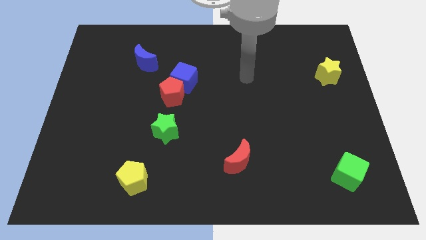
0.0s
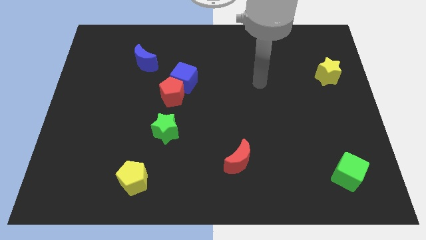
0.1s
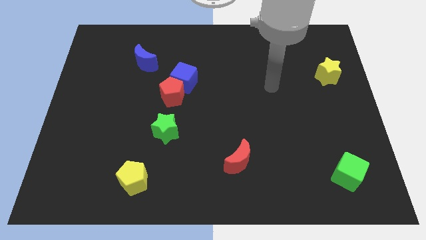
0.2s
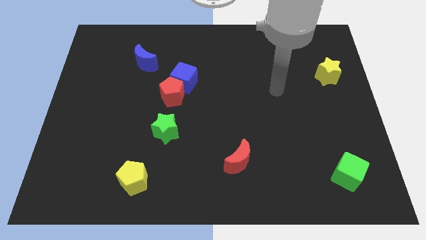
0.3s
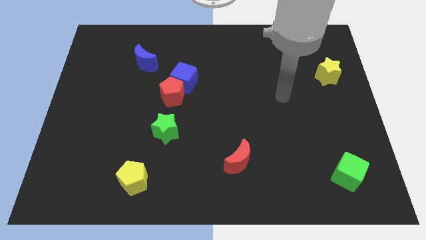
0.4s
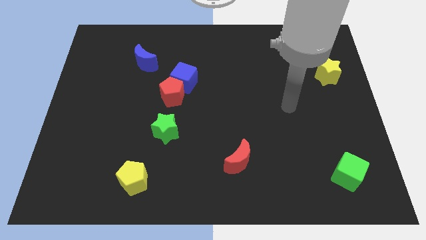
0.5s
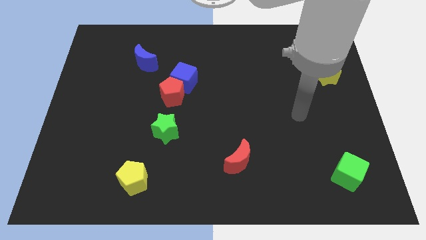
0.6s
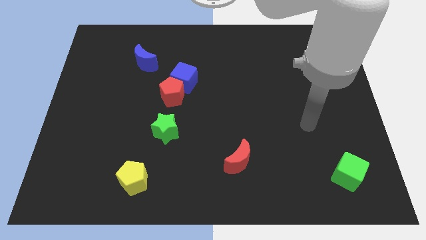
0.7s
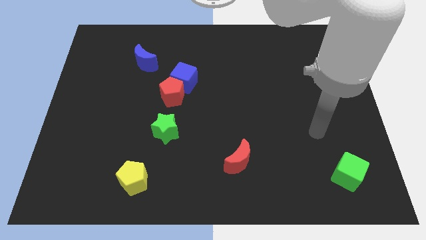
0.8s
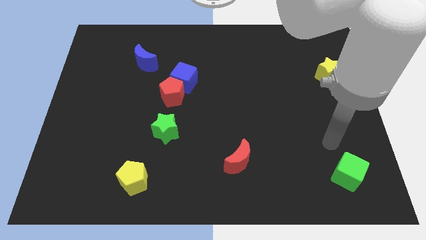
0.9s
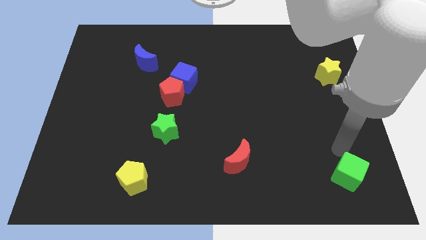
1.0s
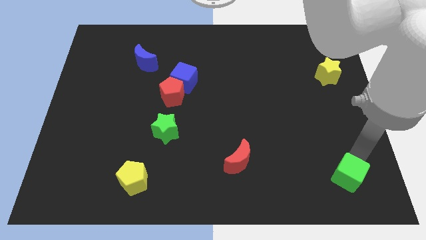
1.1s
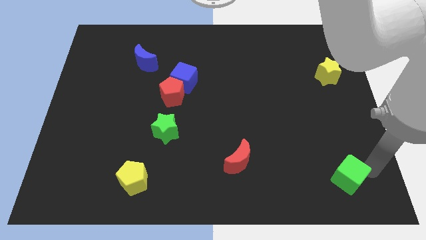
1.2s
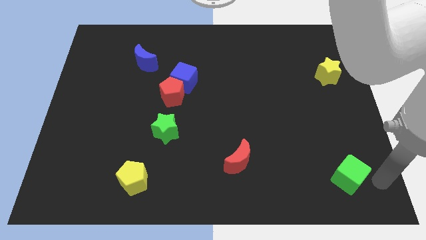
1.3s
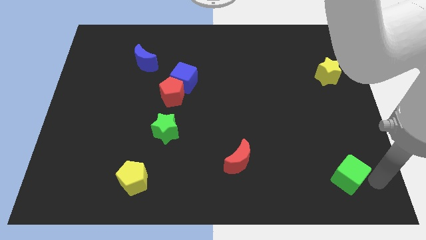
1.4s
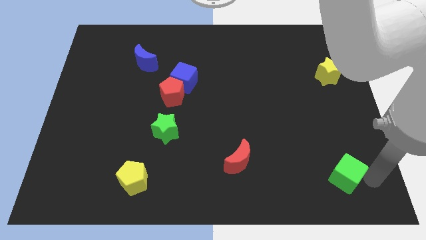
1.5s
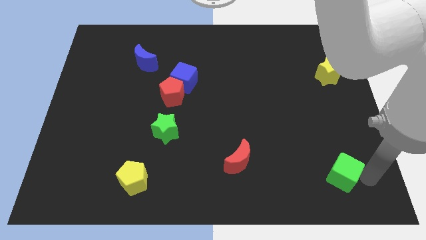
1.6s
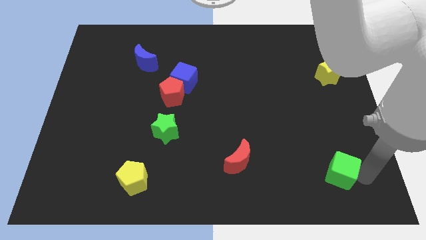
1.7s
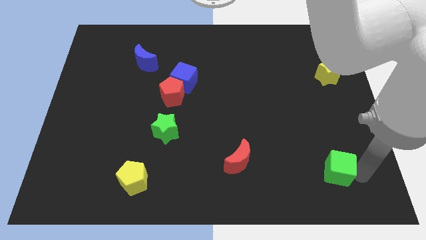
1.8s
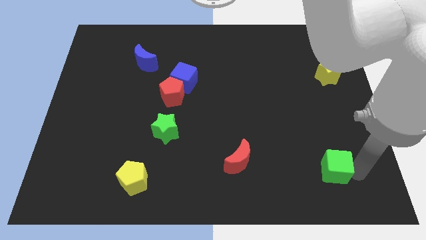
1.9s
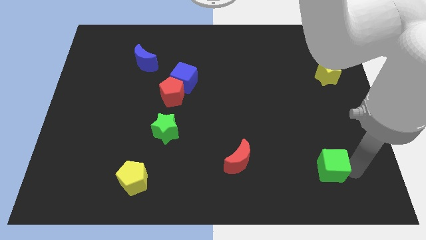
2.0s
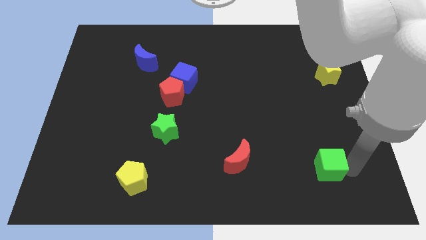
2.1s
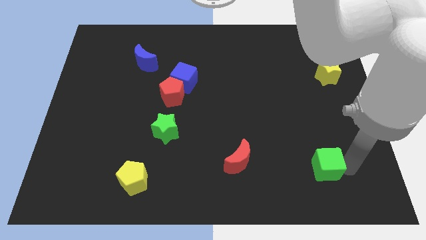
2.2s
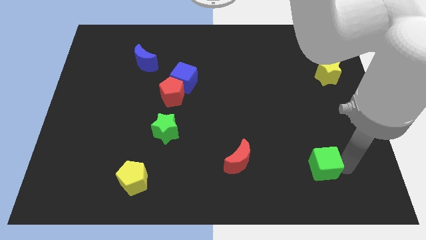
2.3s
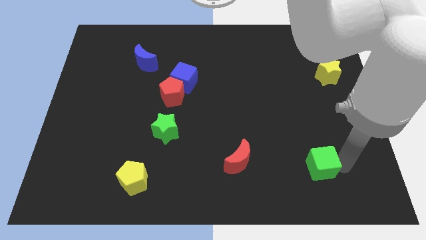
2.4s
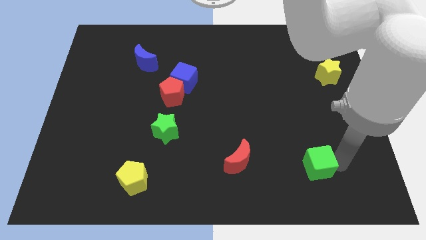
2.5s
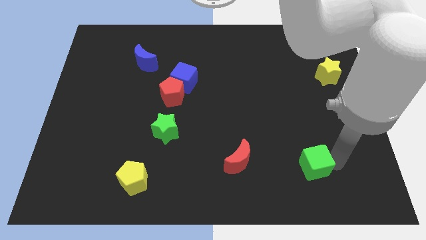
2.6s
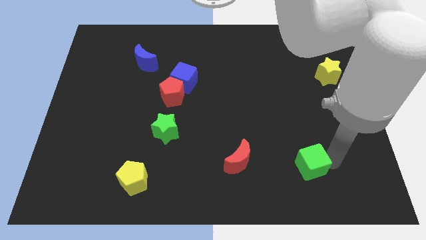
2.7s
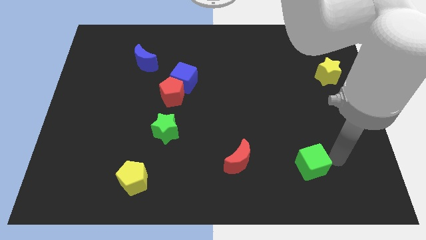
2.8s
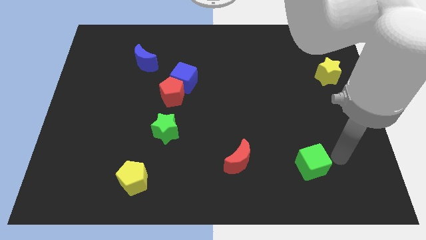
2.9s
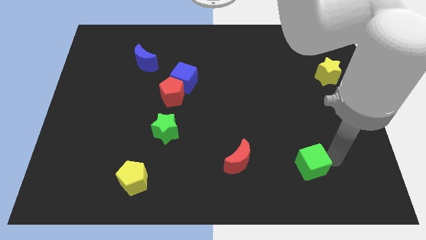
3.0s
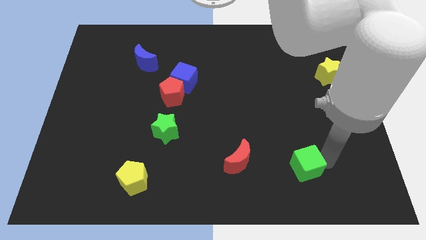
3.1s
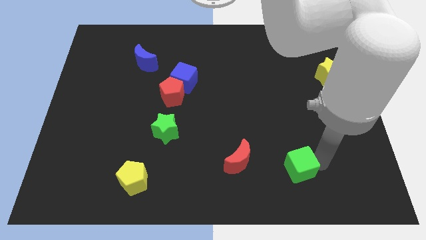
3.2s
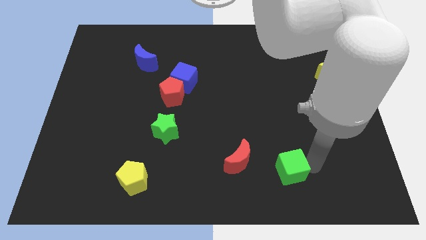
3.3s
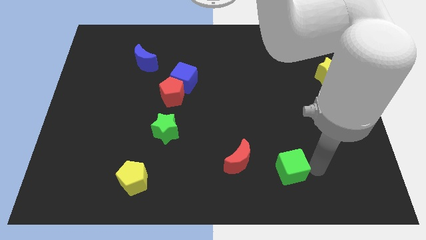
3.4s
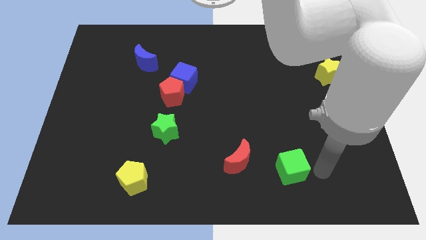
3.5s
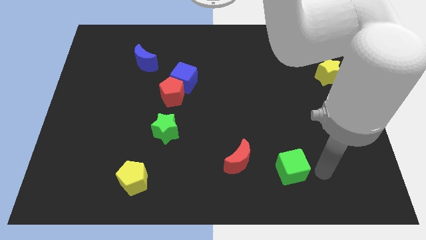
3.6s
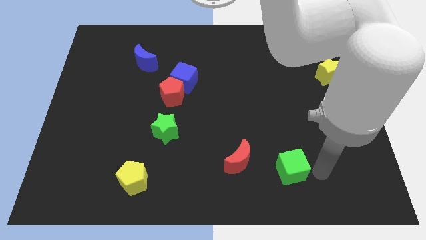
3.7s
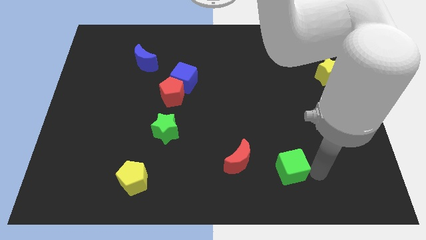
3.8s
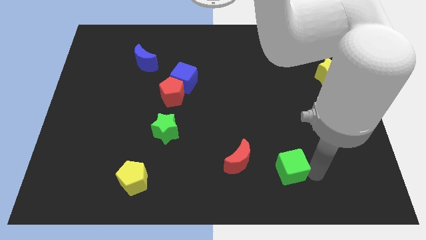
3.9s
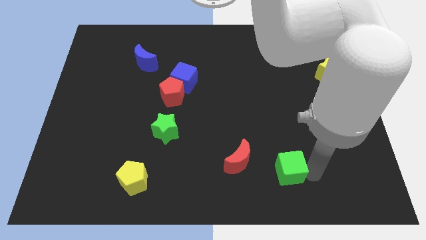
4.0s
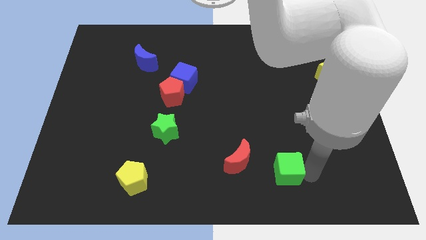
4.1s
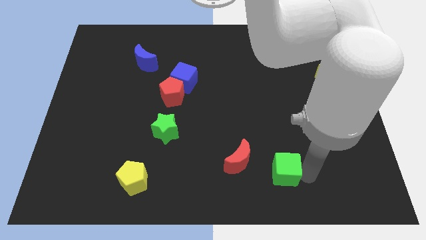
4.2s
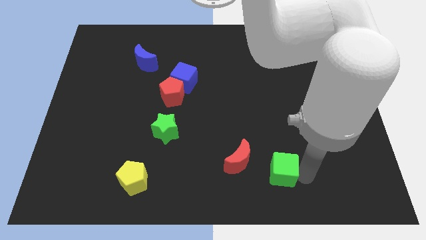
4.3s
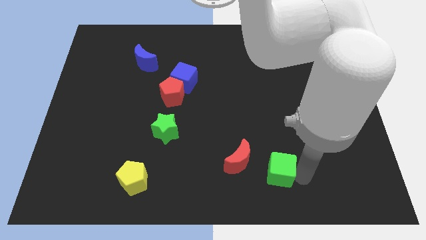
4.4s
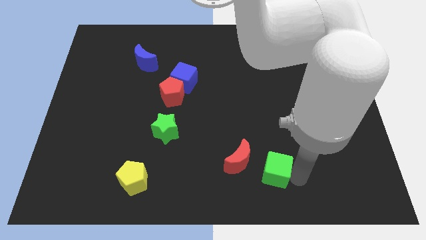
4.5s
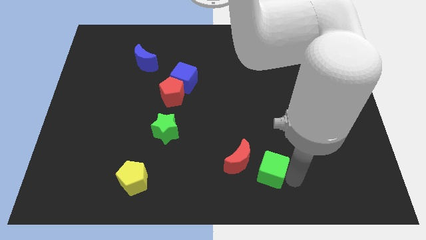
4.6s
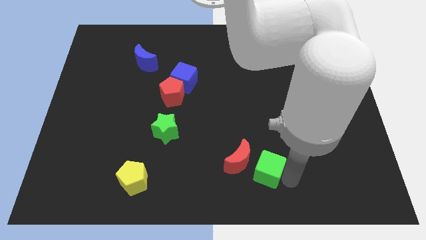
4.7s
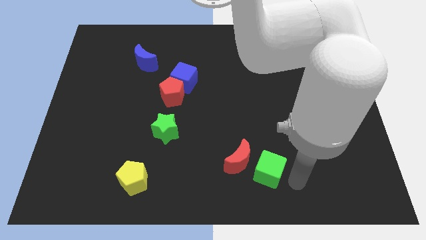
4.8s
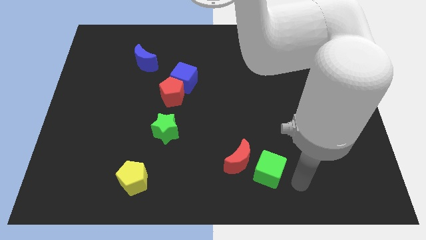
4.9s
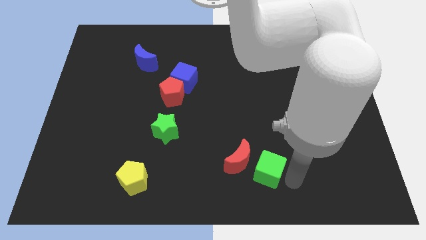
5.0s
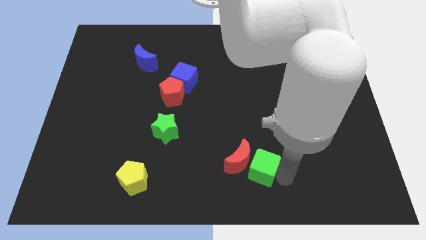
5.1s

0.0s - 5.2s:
push the green cube towards the red moon

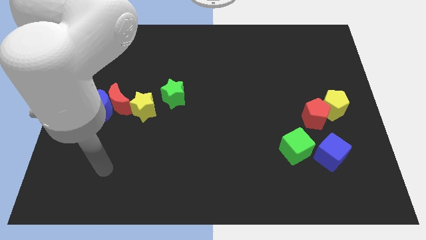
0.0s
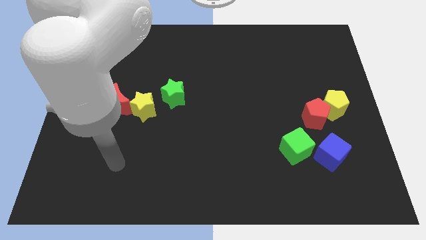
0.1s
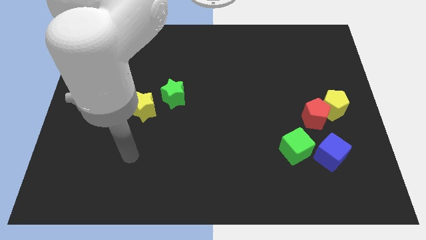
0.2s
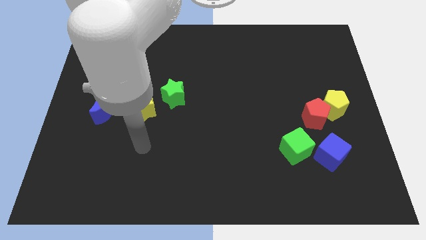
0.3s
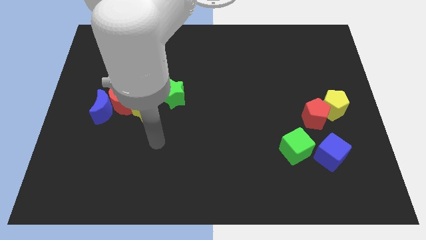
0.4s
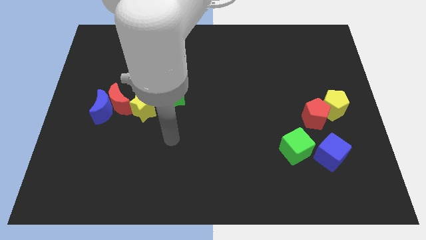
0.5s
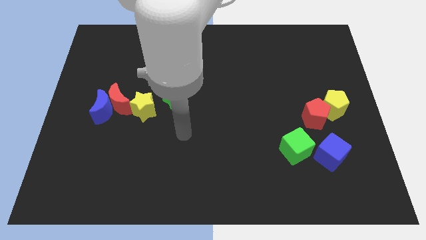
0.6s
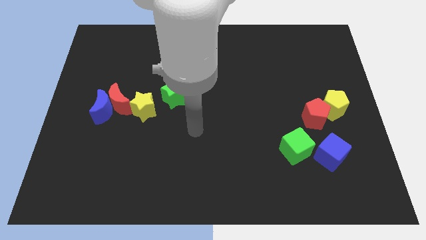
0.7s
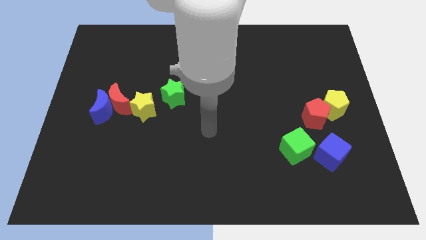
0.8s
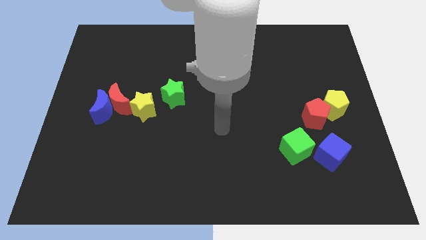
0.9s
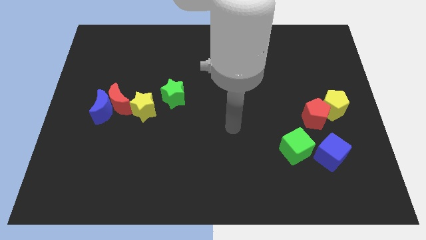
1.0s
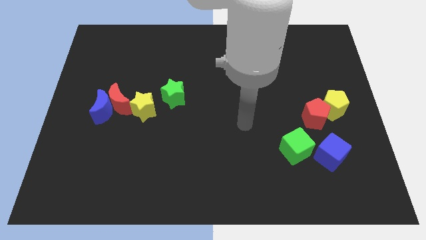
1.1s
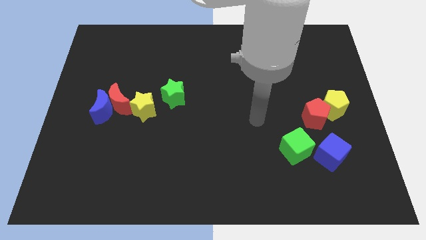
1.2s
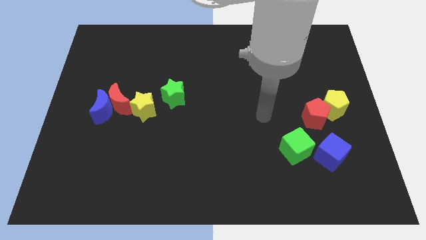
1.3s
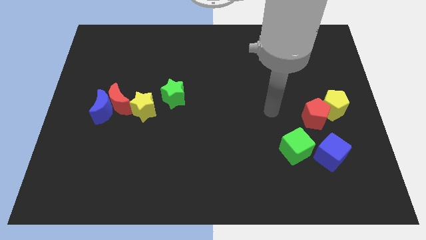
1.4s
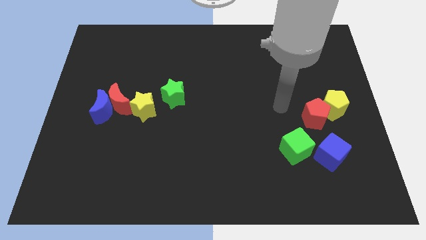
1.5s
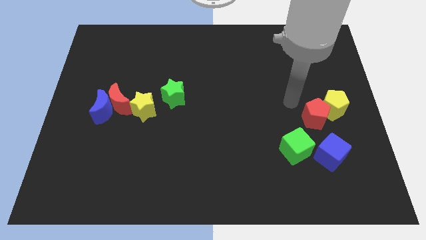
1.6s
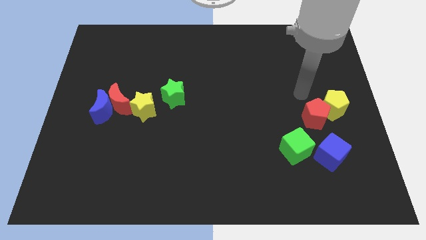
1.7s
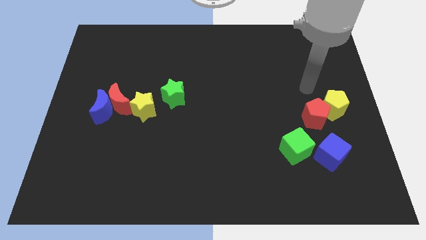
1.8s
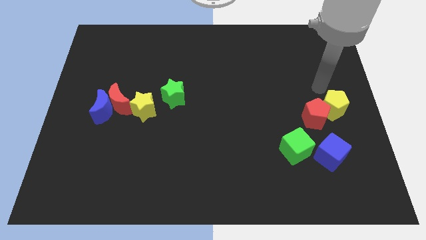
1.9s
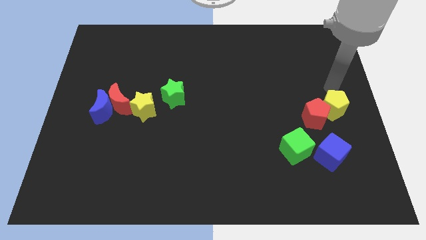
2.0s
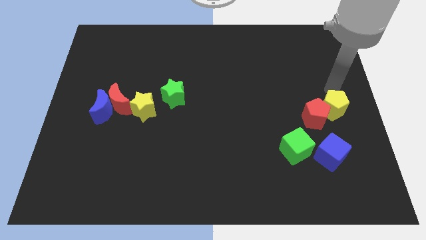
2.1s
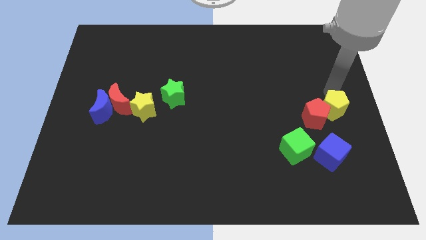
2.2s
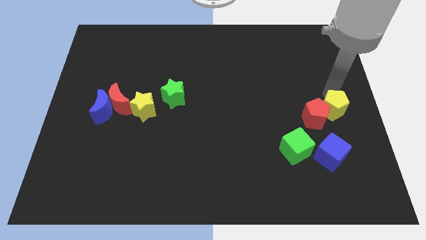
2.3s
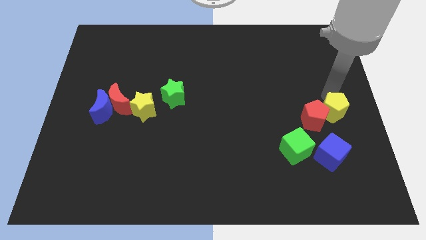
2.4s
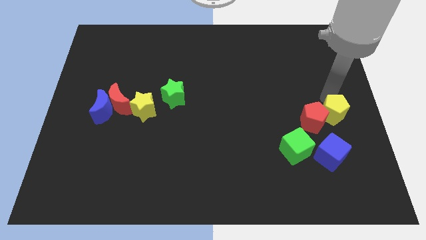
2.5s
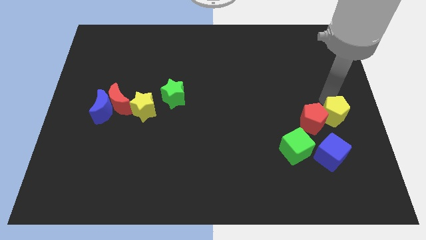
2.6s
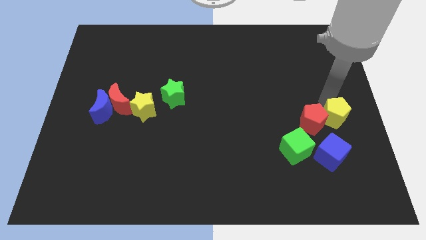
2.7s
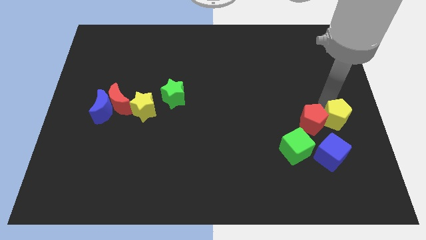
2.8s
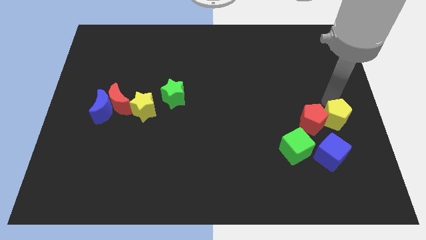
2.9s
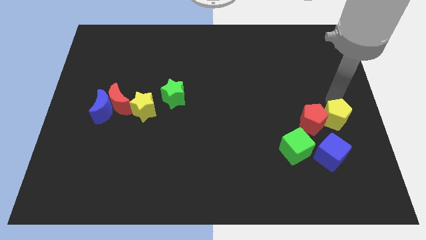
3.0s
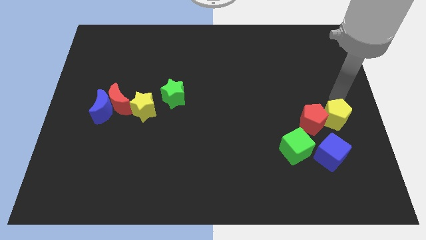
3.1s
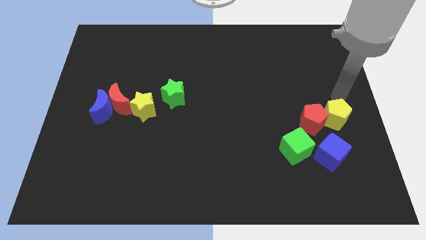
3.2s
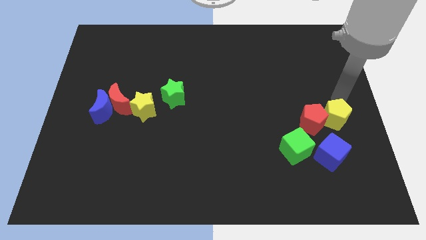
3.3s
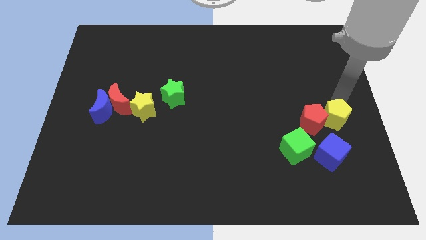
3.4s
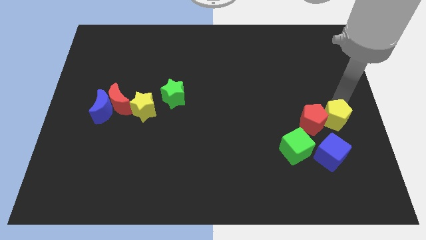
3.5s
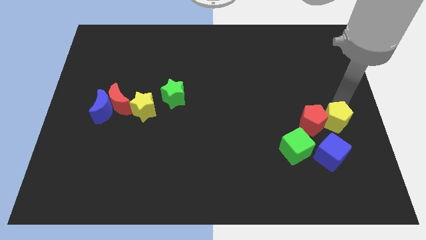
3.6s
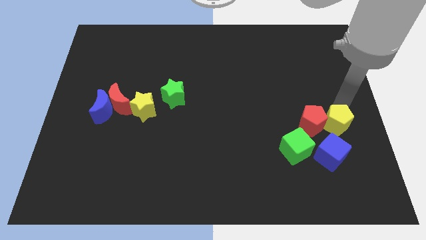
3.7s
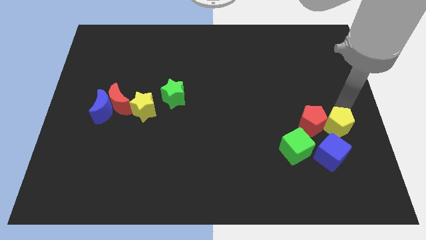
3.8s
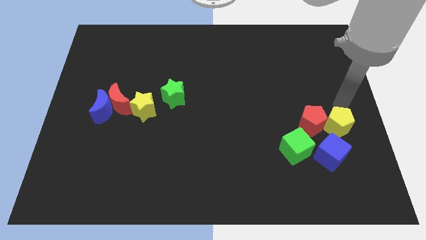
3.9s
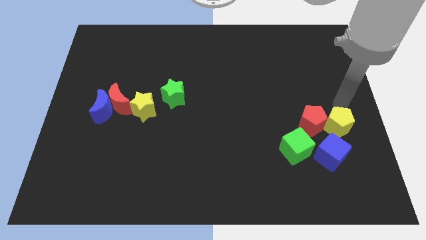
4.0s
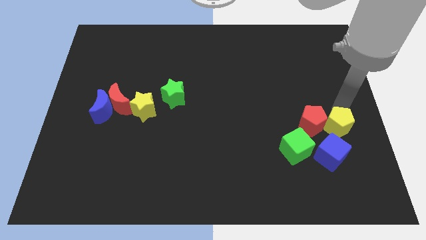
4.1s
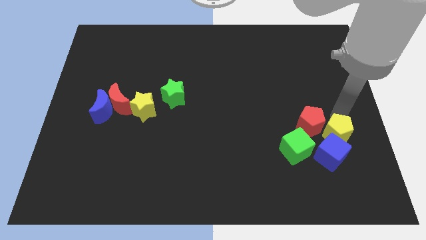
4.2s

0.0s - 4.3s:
push the yellow pentagon to the blue cube
